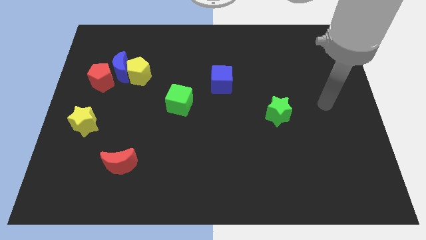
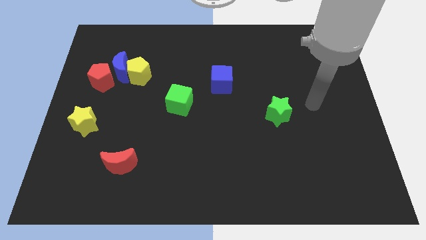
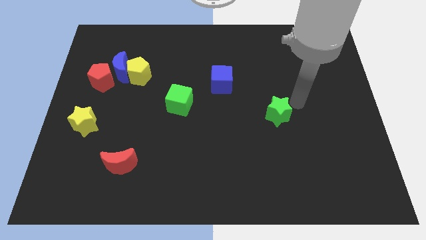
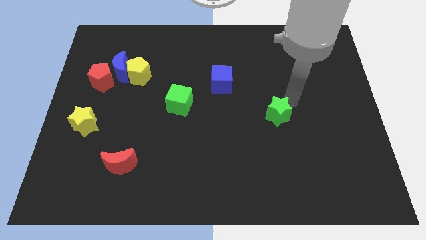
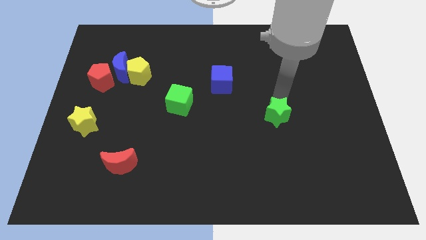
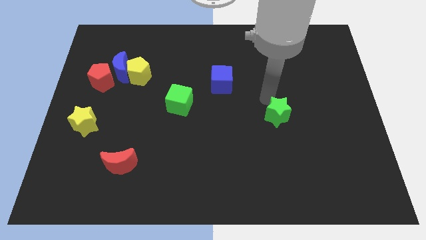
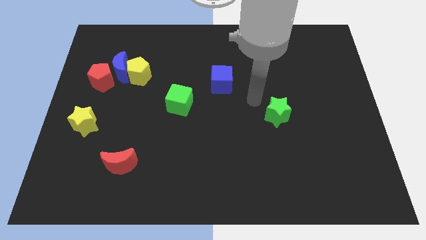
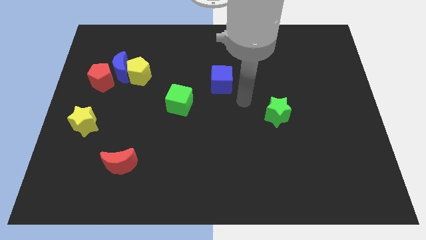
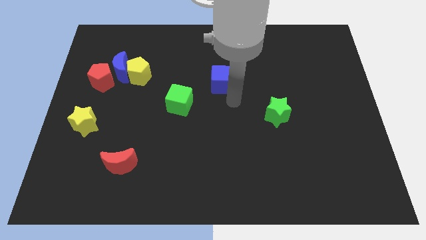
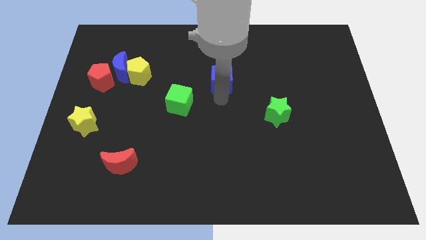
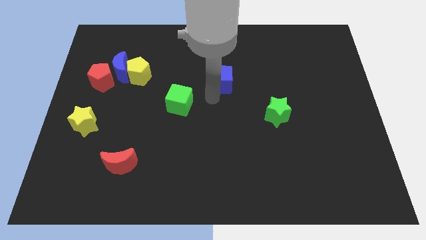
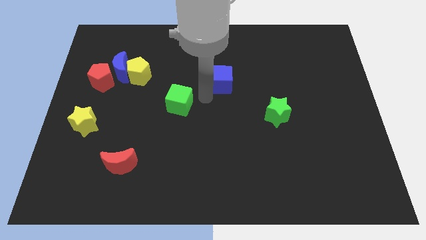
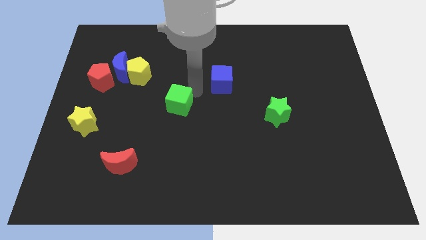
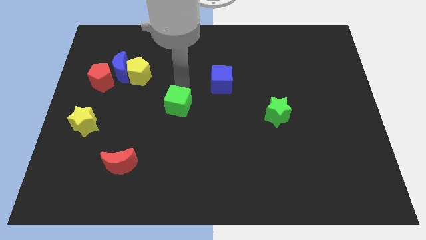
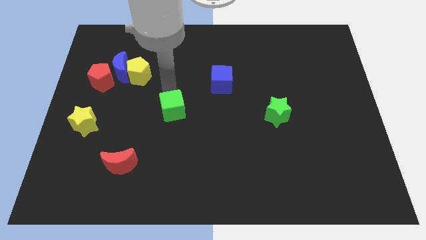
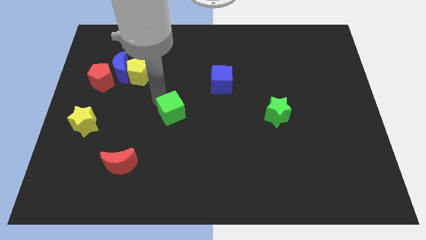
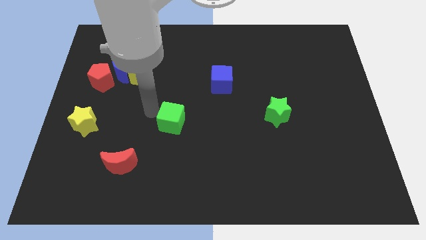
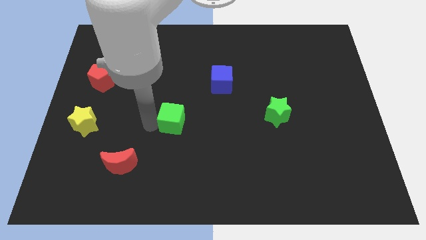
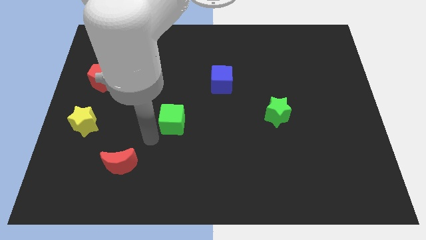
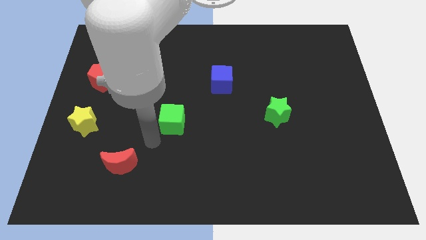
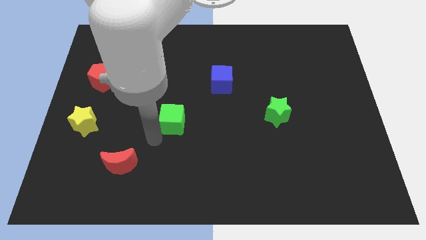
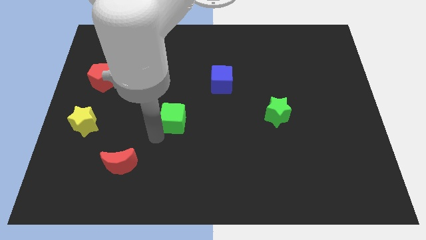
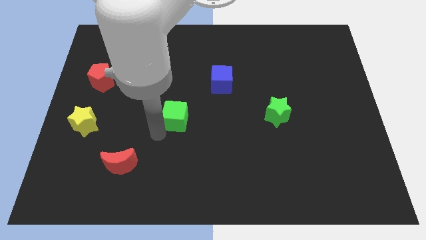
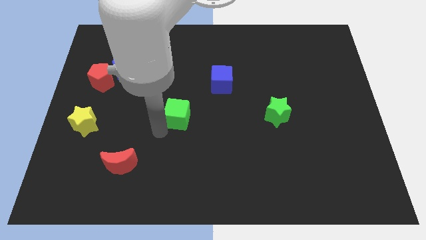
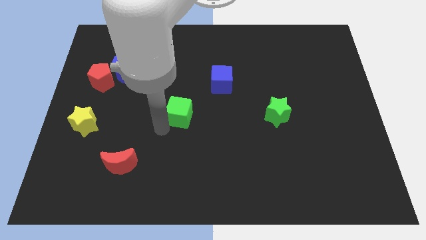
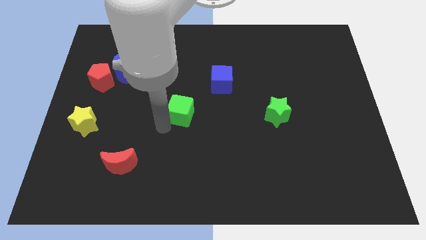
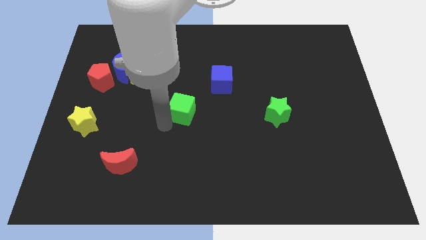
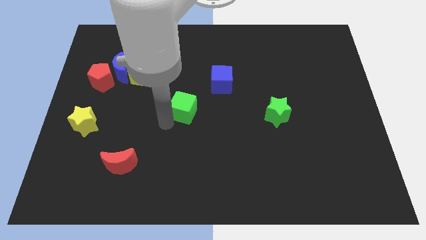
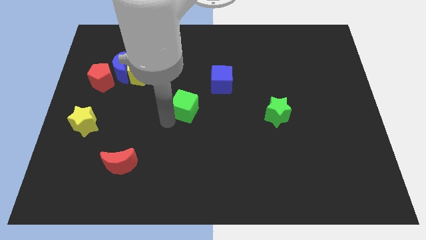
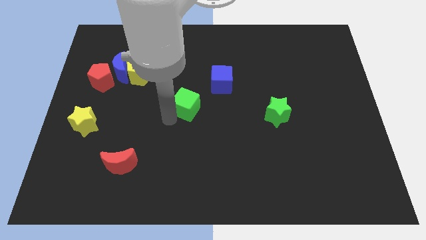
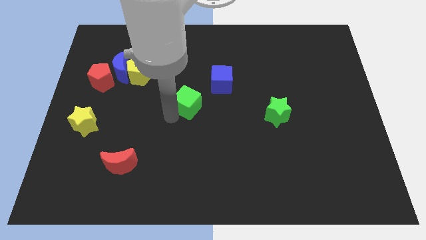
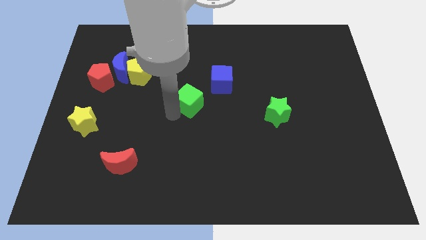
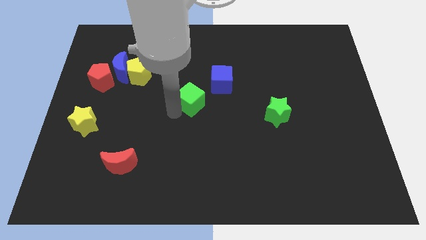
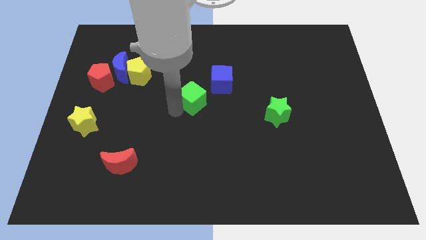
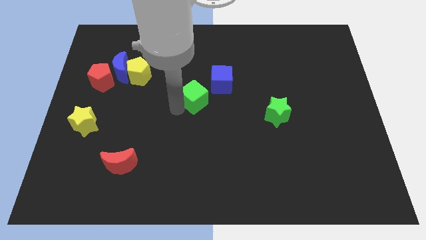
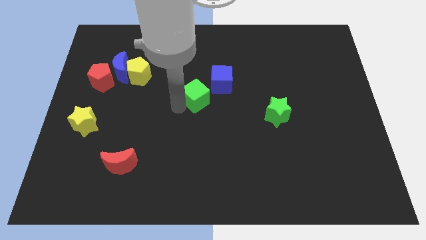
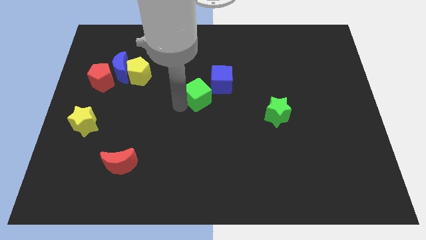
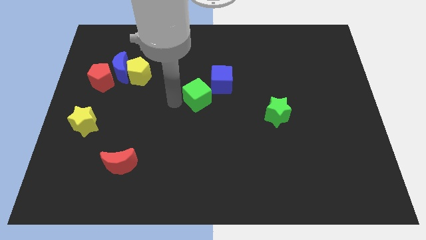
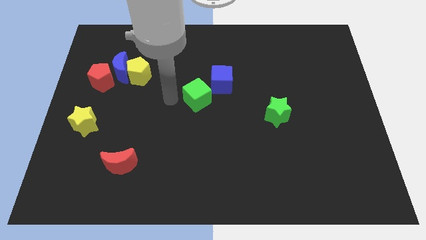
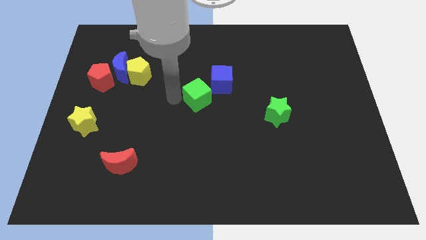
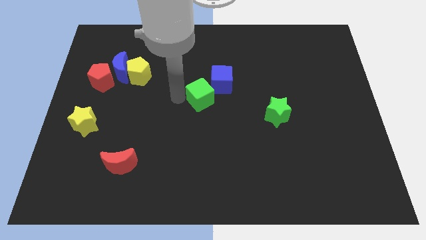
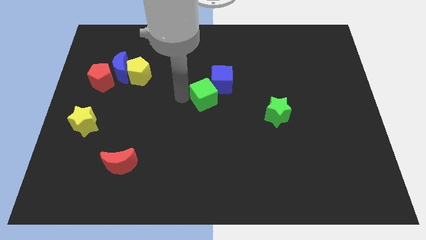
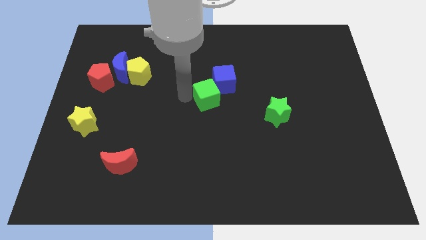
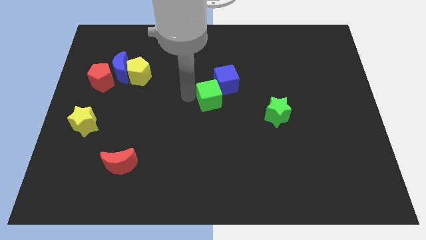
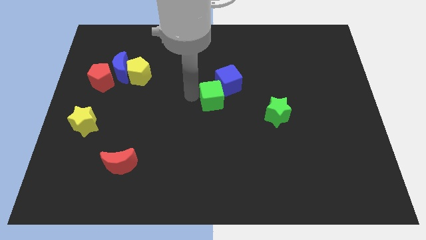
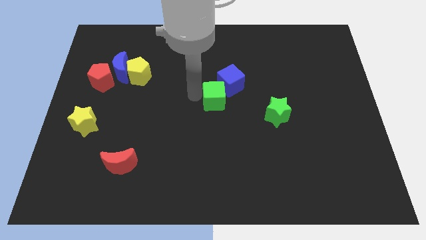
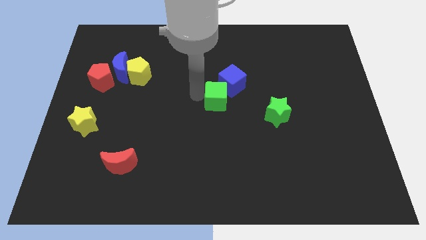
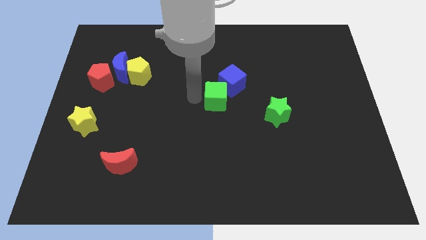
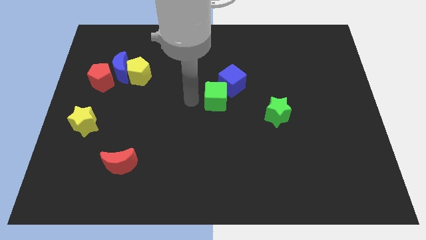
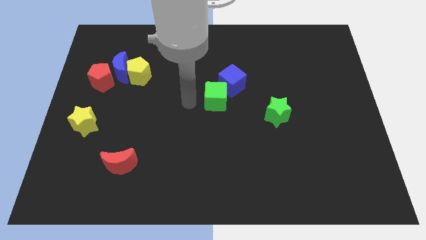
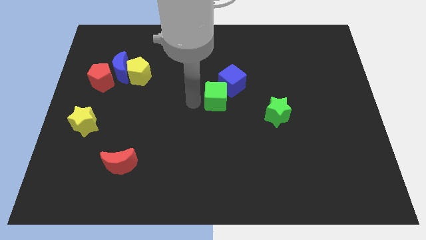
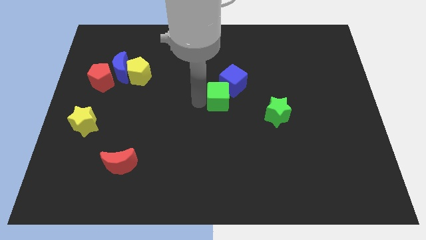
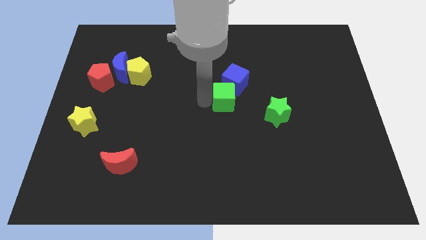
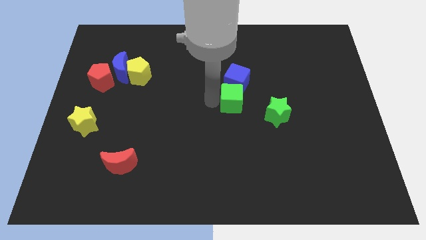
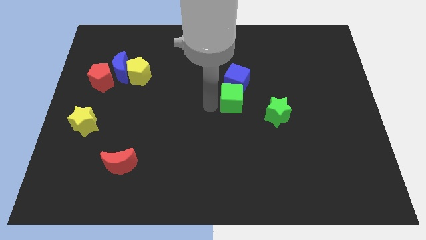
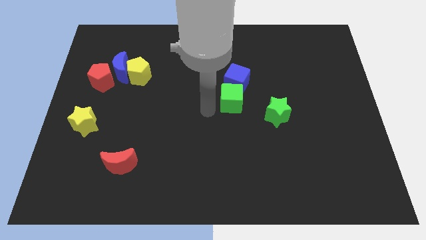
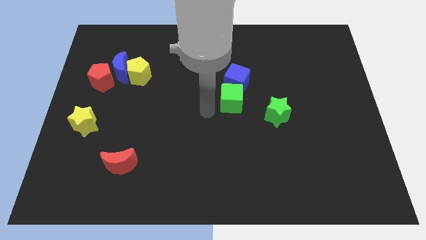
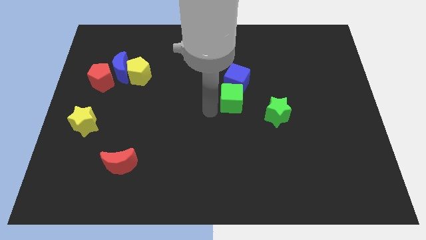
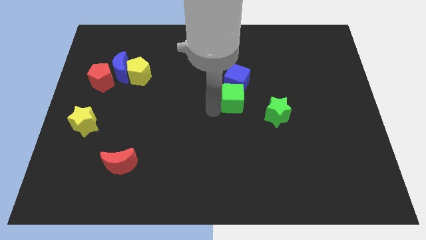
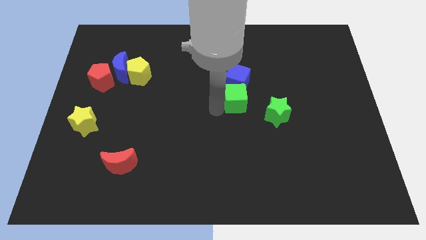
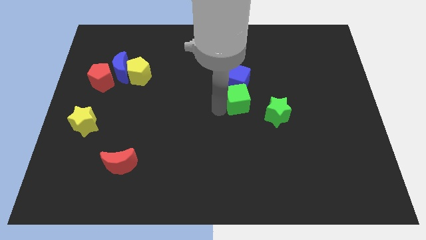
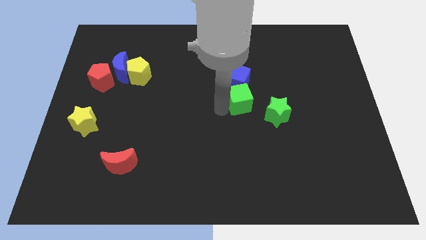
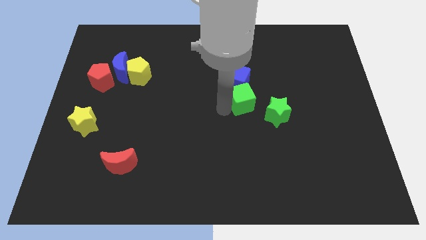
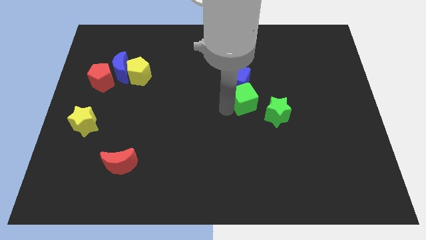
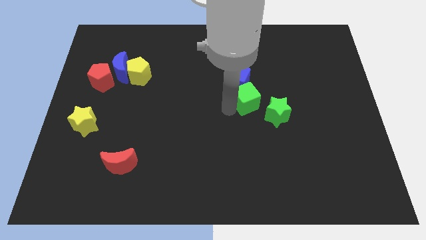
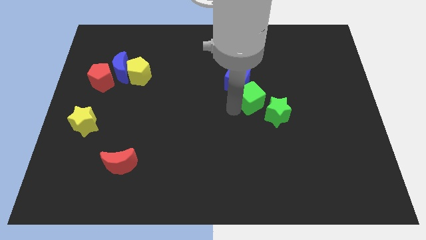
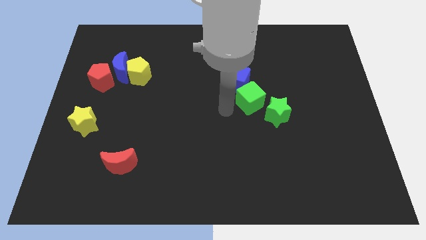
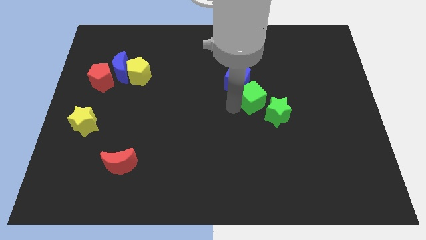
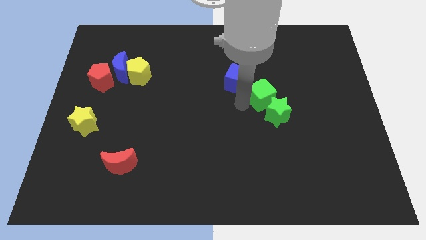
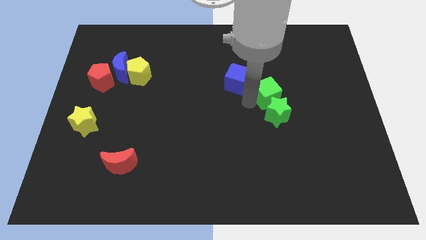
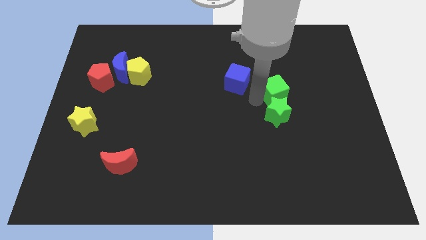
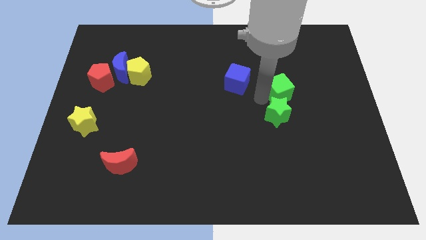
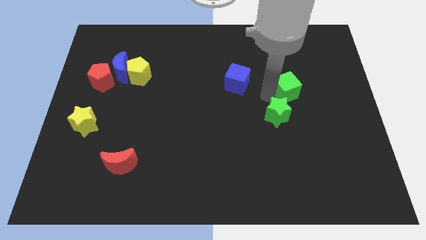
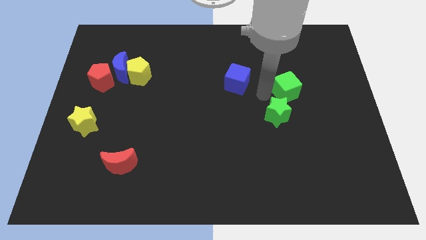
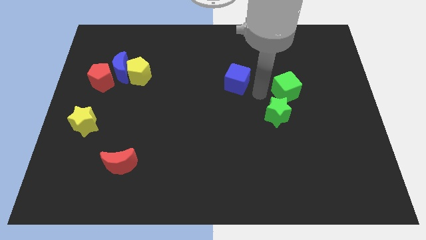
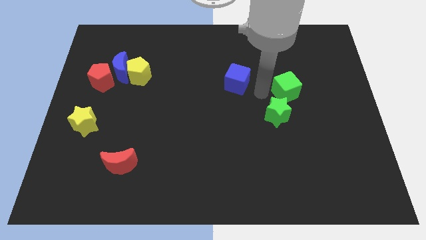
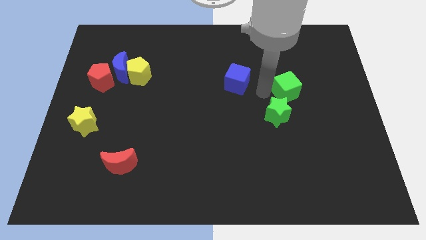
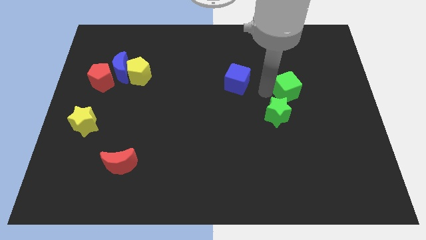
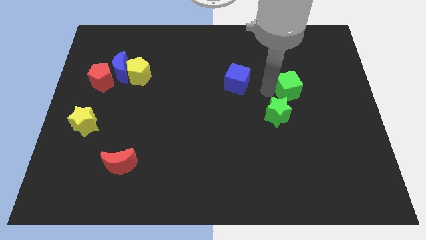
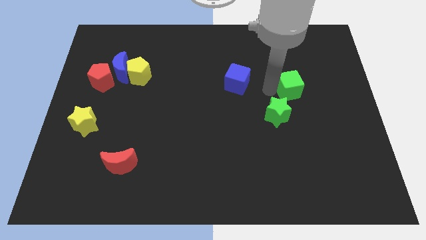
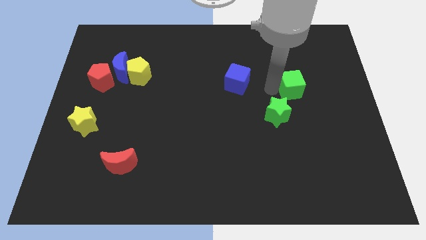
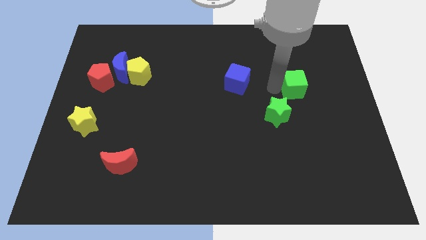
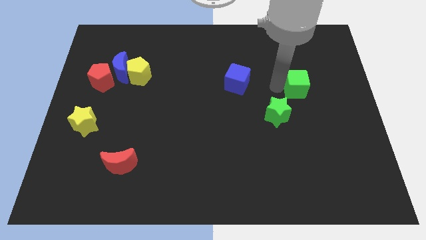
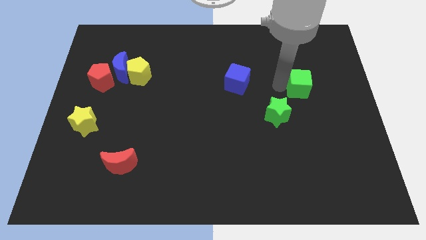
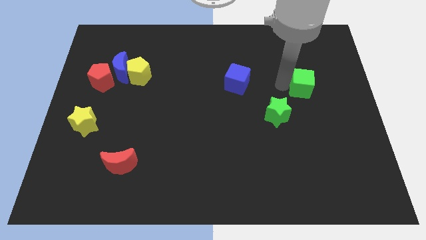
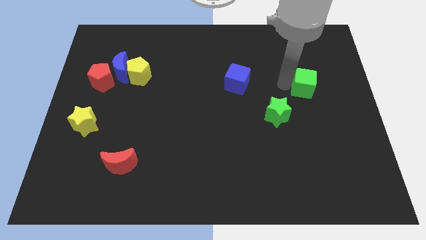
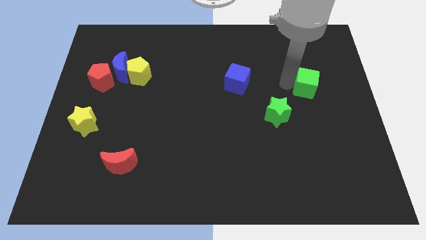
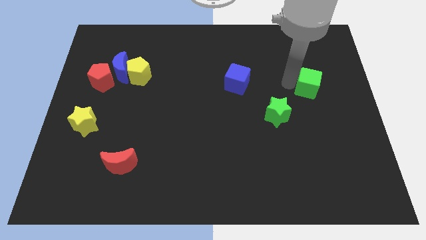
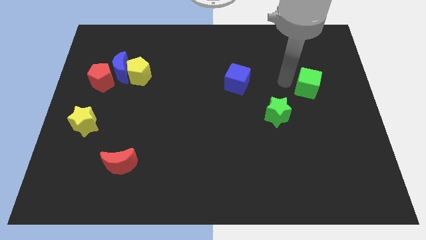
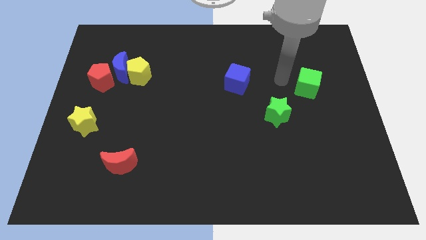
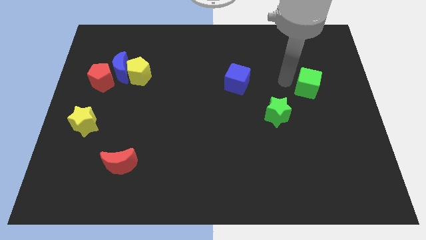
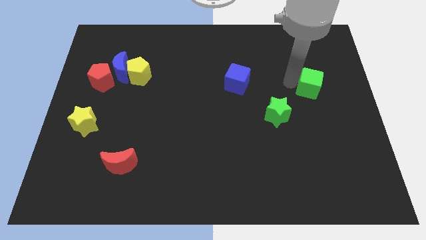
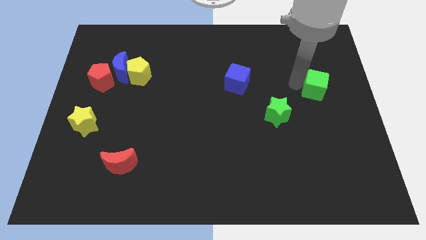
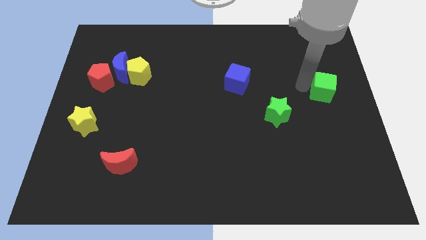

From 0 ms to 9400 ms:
slide the green cube to the right side
